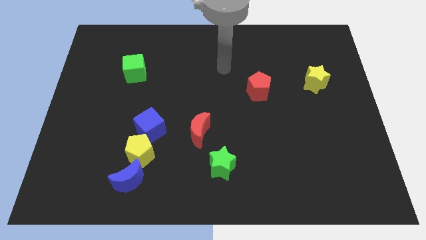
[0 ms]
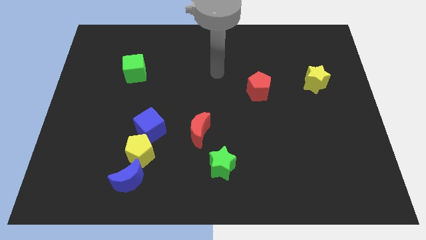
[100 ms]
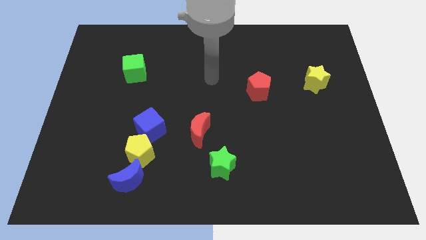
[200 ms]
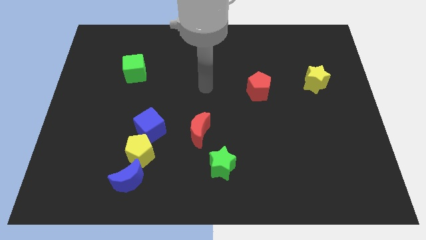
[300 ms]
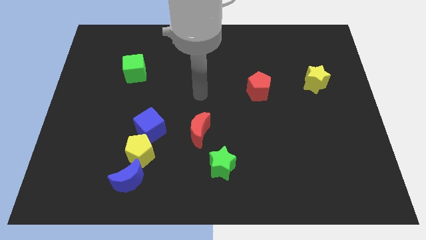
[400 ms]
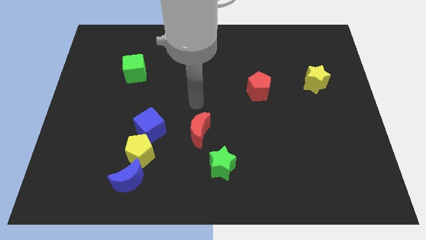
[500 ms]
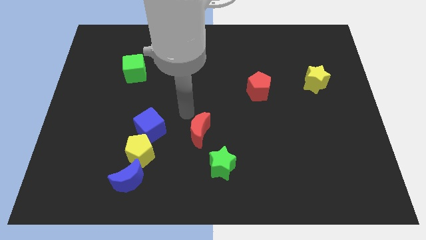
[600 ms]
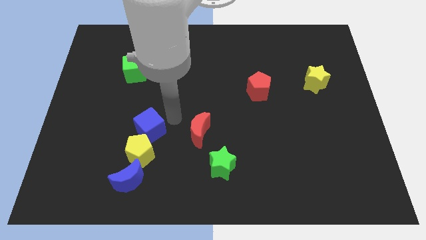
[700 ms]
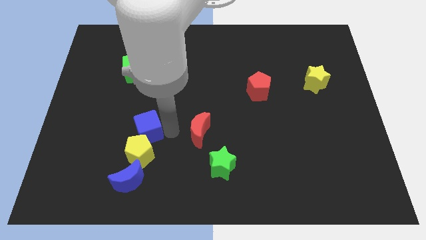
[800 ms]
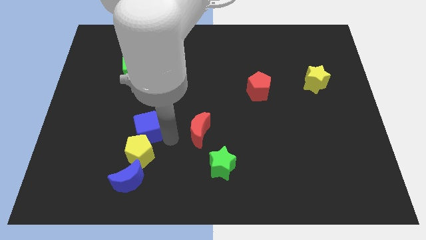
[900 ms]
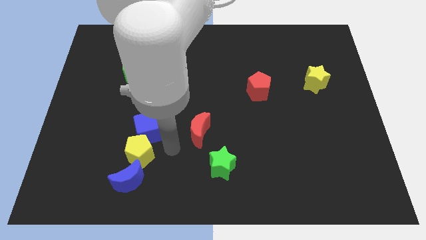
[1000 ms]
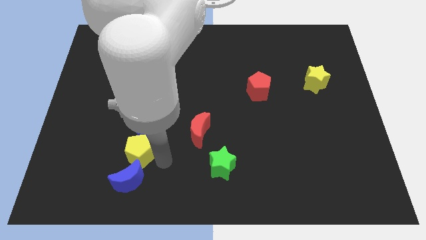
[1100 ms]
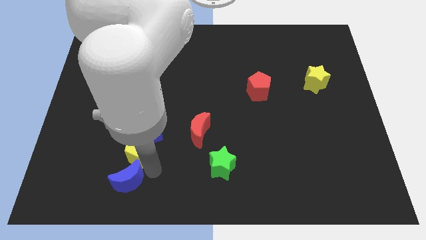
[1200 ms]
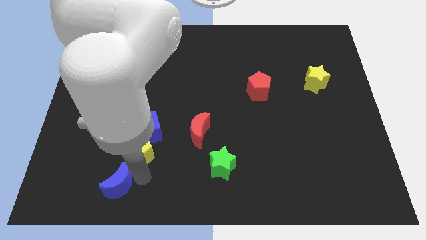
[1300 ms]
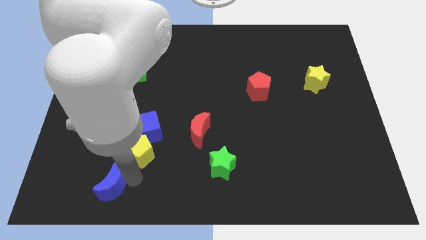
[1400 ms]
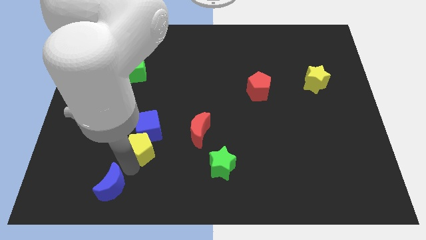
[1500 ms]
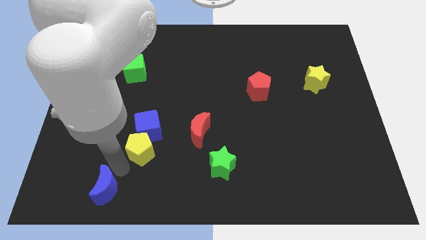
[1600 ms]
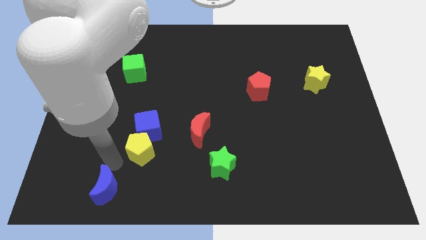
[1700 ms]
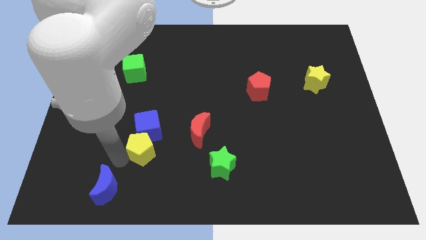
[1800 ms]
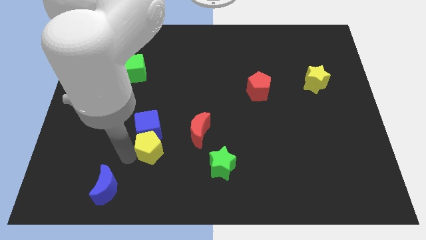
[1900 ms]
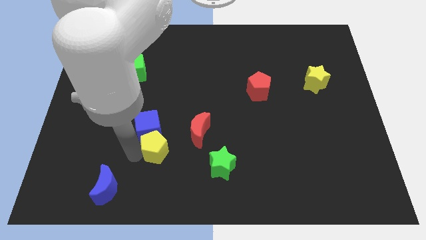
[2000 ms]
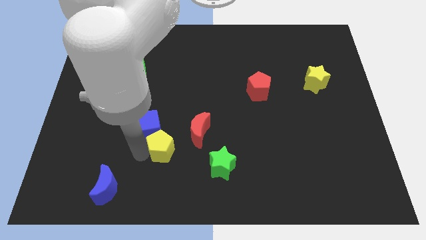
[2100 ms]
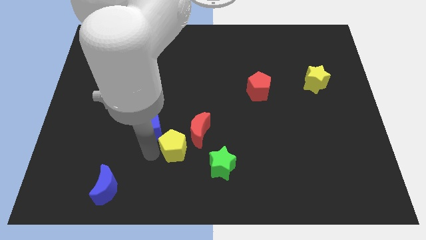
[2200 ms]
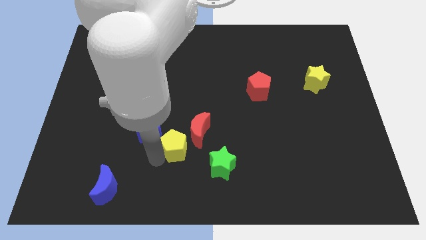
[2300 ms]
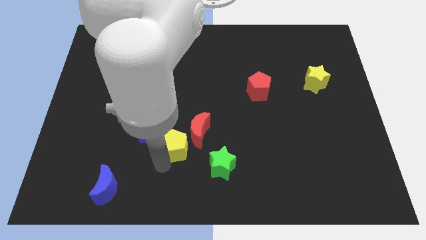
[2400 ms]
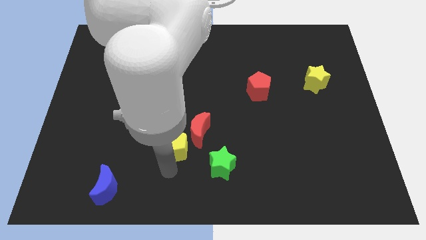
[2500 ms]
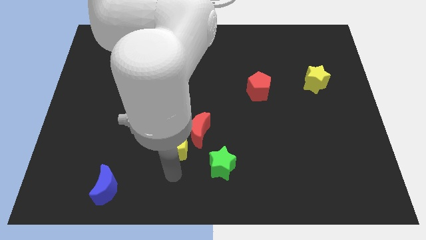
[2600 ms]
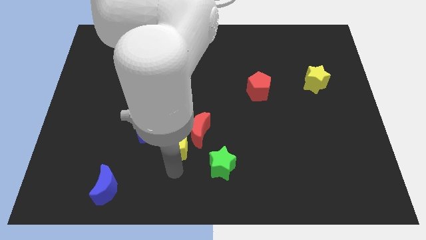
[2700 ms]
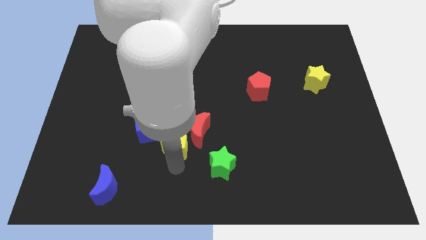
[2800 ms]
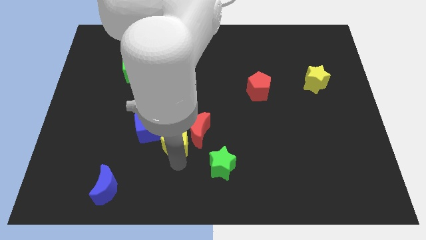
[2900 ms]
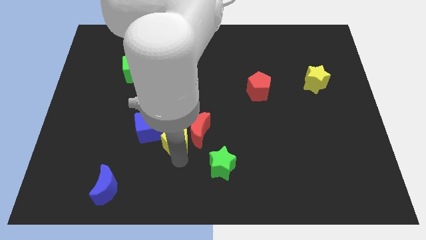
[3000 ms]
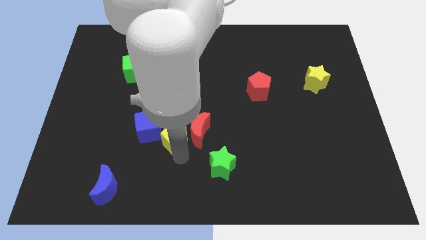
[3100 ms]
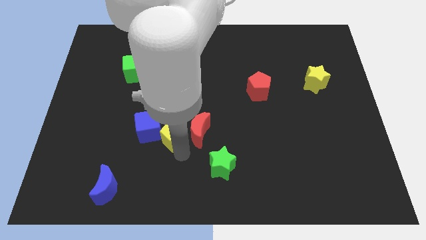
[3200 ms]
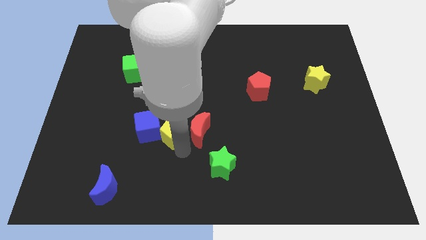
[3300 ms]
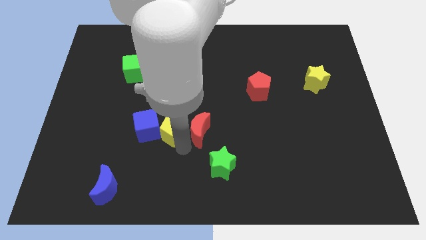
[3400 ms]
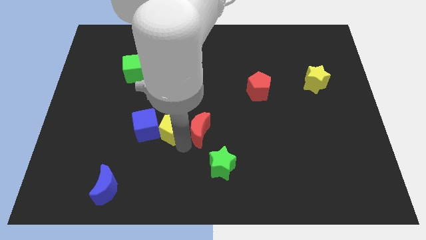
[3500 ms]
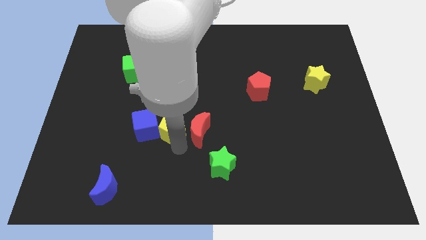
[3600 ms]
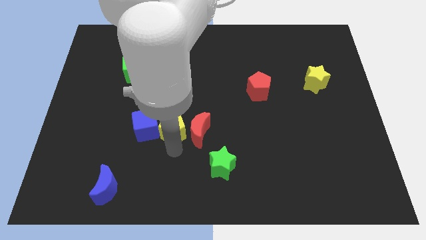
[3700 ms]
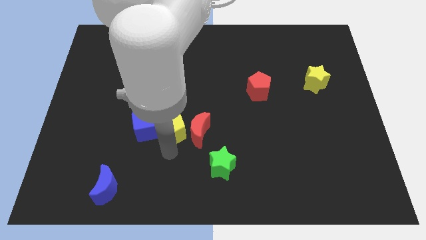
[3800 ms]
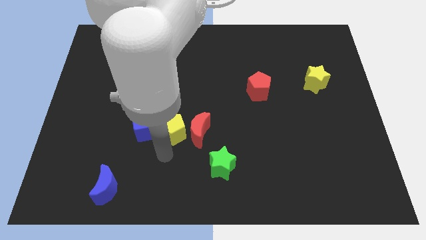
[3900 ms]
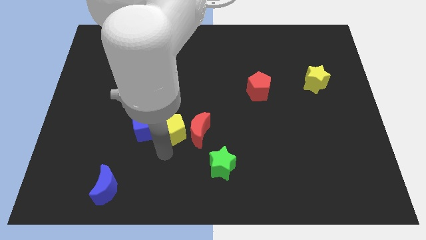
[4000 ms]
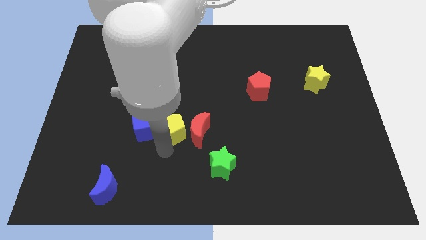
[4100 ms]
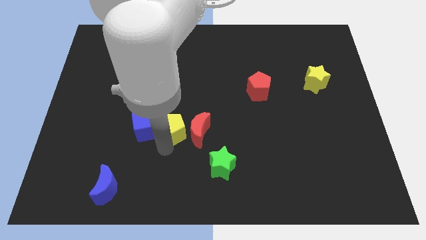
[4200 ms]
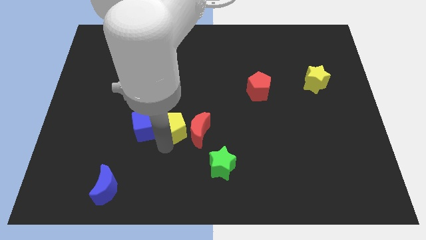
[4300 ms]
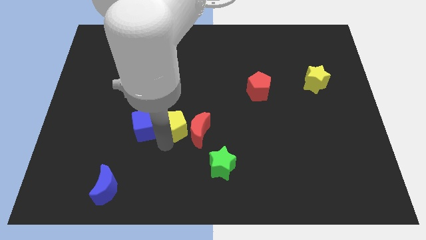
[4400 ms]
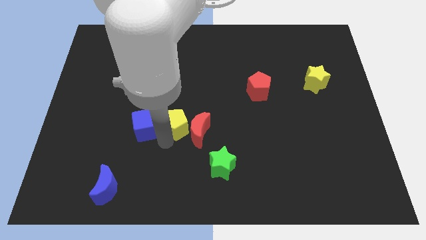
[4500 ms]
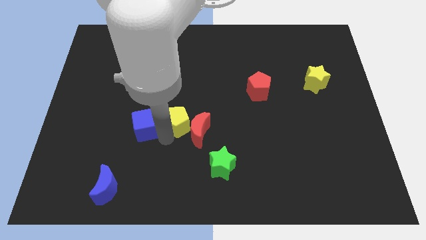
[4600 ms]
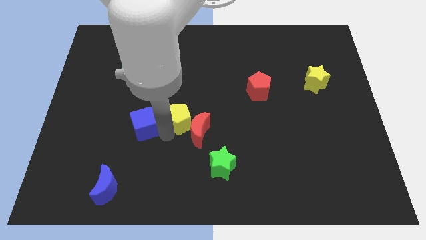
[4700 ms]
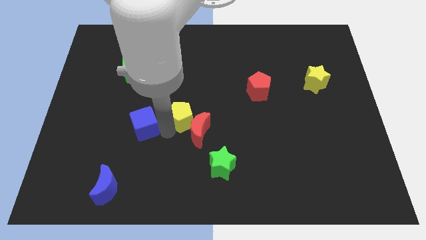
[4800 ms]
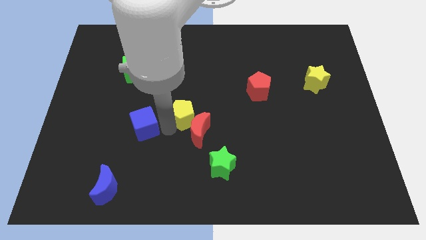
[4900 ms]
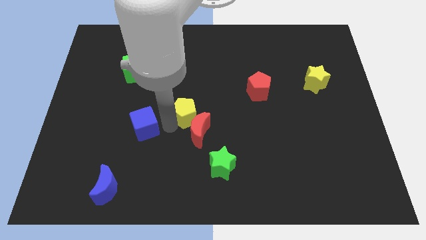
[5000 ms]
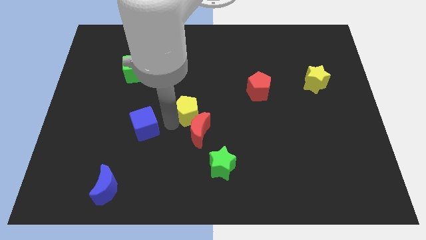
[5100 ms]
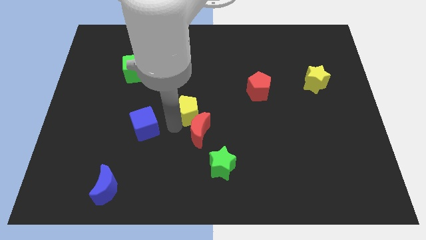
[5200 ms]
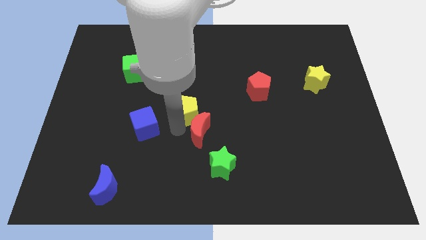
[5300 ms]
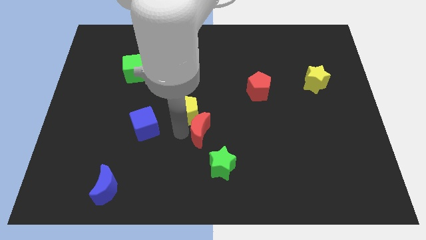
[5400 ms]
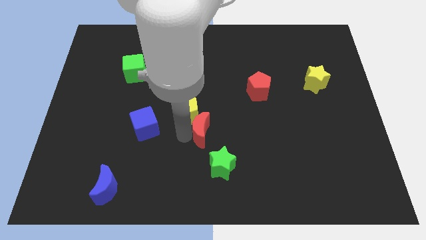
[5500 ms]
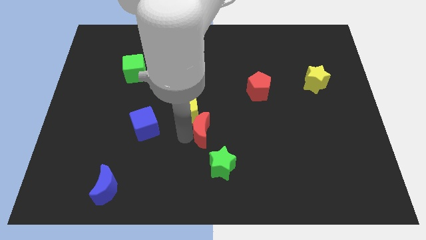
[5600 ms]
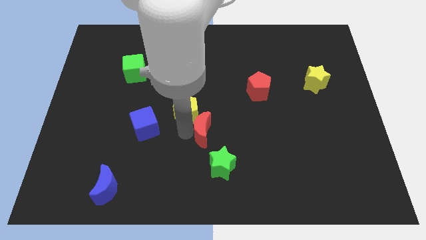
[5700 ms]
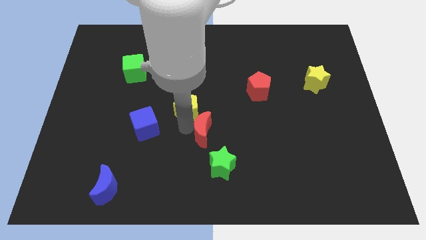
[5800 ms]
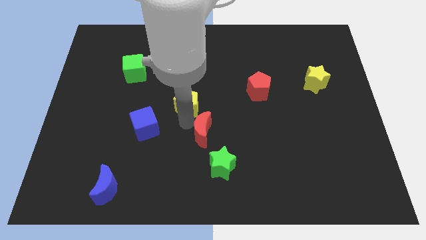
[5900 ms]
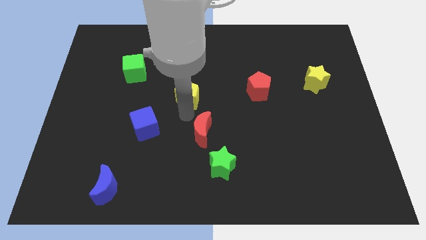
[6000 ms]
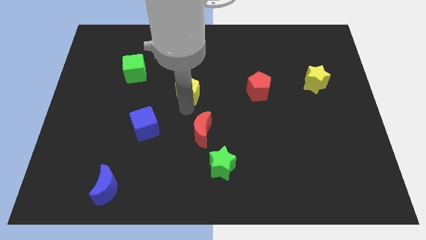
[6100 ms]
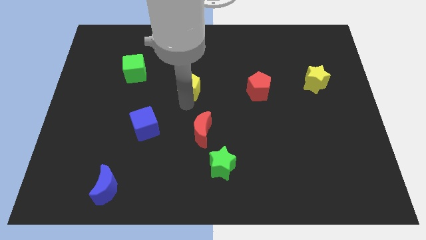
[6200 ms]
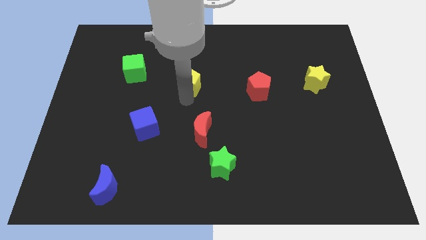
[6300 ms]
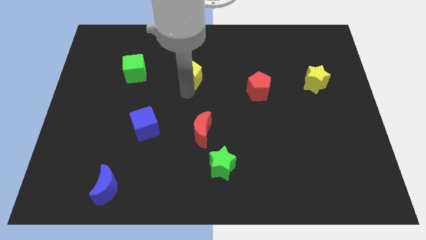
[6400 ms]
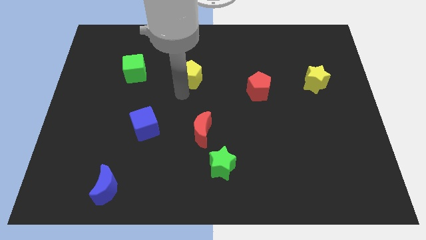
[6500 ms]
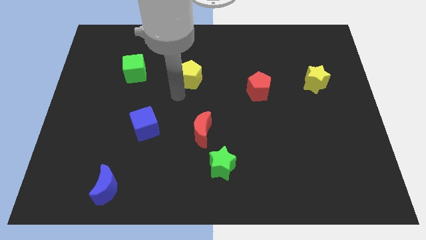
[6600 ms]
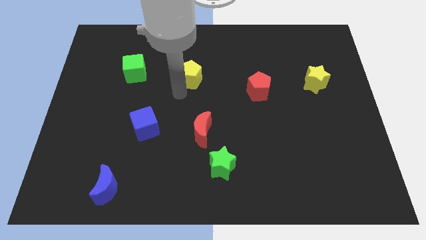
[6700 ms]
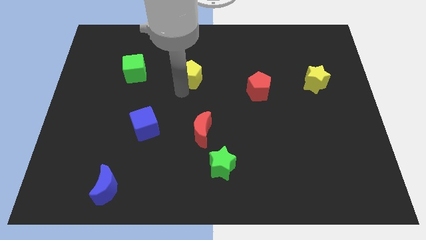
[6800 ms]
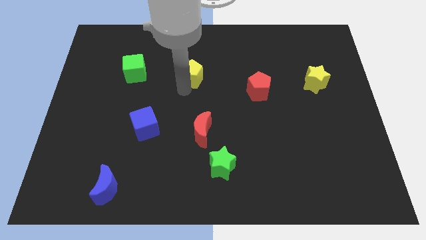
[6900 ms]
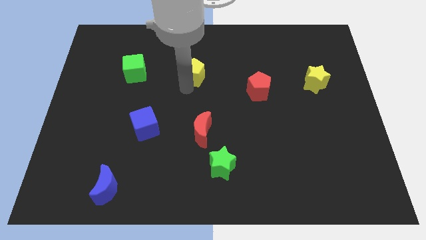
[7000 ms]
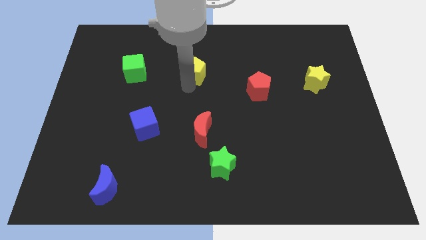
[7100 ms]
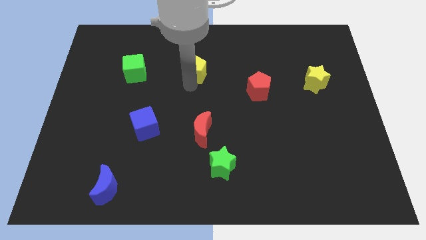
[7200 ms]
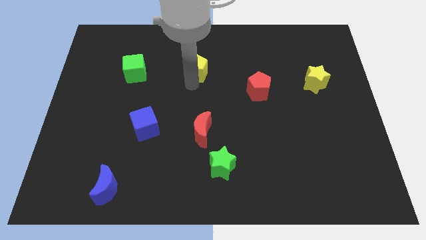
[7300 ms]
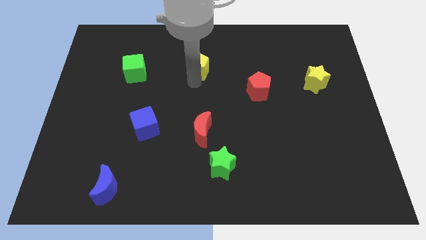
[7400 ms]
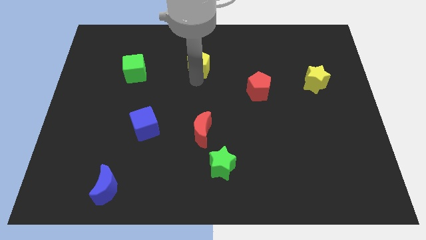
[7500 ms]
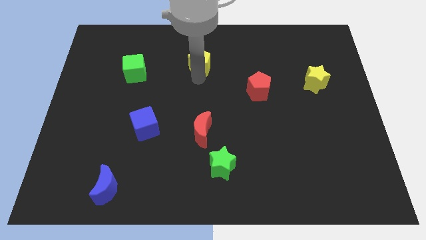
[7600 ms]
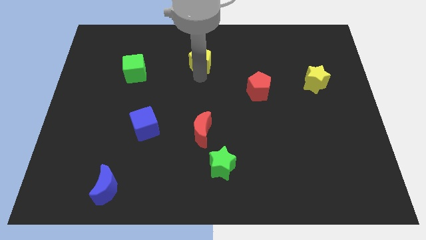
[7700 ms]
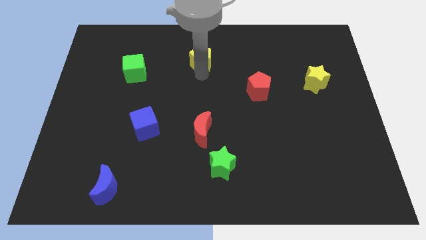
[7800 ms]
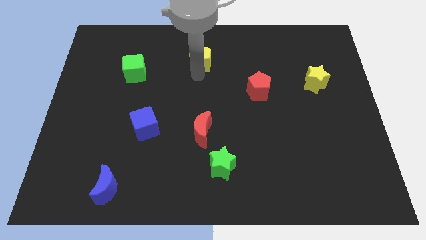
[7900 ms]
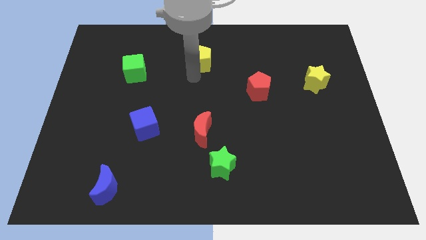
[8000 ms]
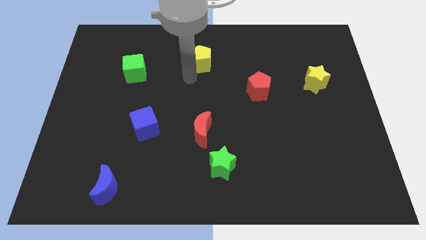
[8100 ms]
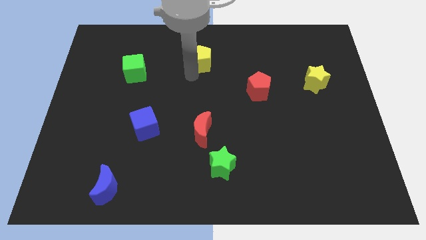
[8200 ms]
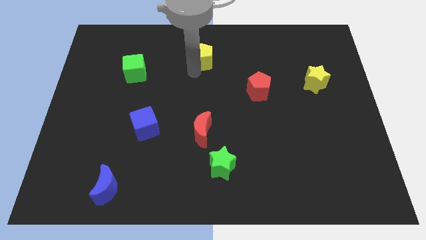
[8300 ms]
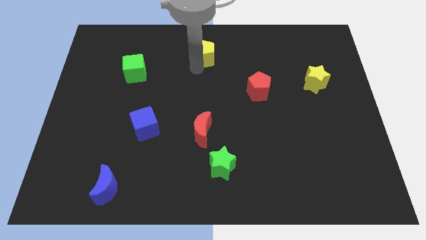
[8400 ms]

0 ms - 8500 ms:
put the yellow pentagon to the top side
